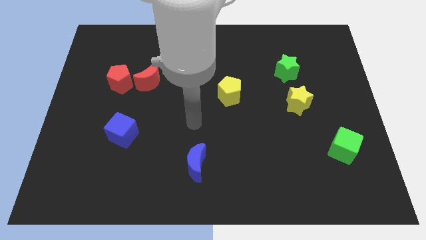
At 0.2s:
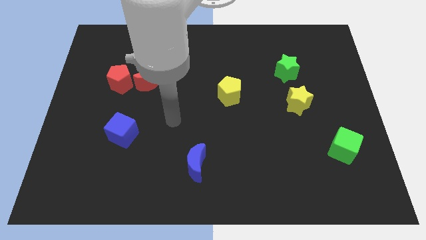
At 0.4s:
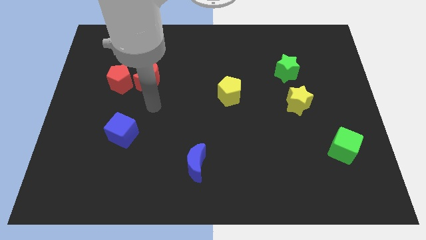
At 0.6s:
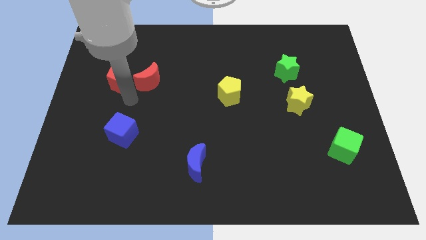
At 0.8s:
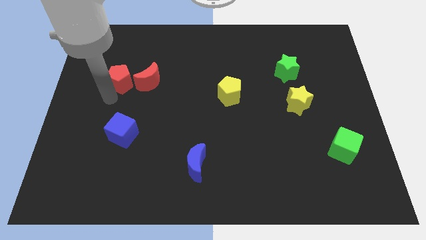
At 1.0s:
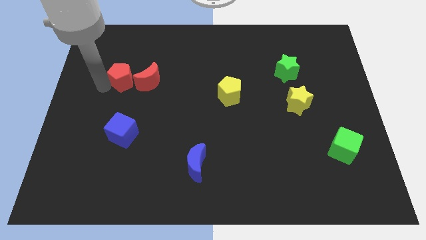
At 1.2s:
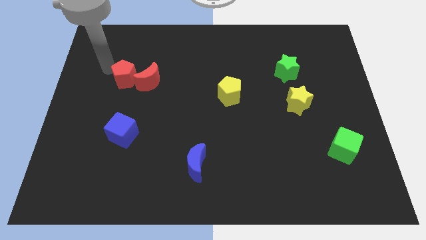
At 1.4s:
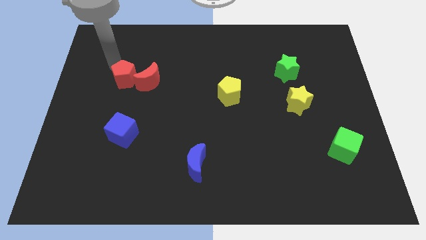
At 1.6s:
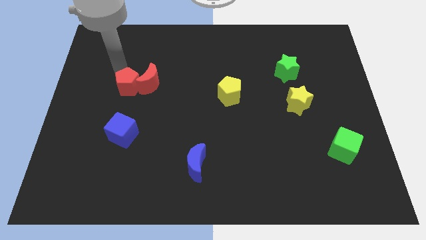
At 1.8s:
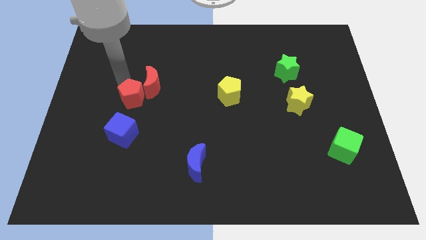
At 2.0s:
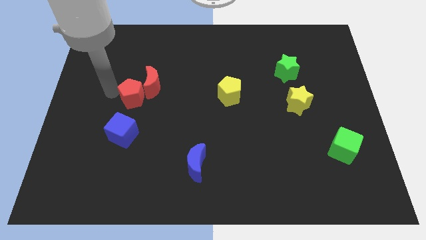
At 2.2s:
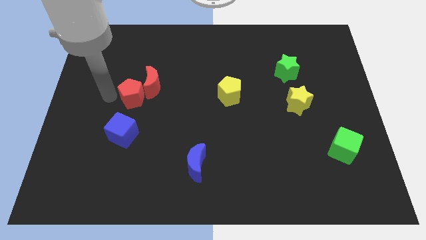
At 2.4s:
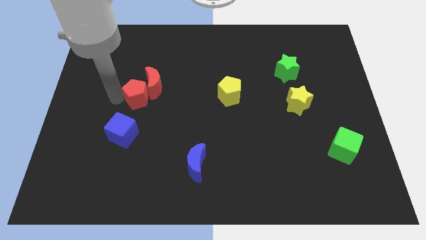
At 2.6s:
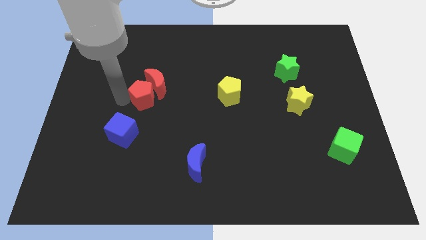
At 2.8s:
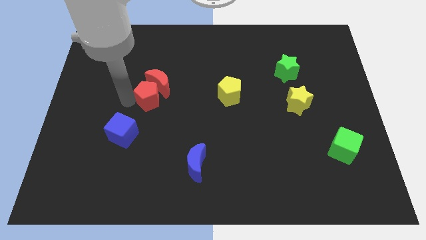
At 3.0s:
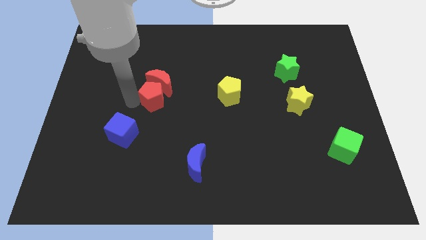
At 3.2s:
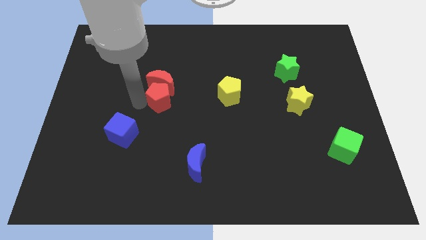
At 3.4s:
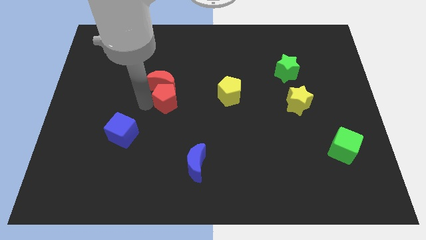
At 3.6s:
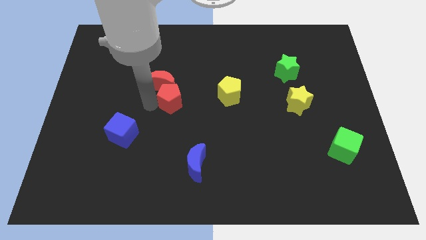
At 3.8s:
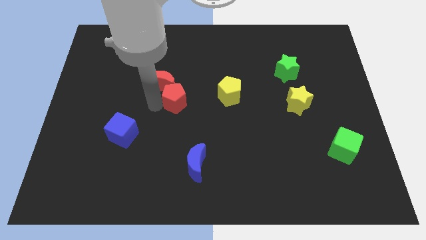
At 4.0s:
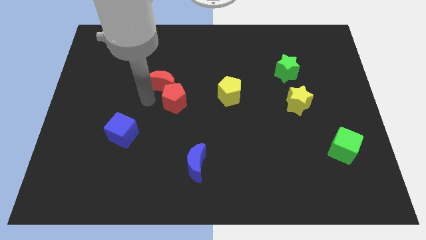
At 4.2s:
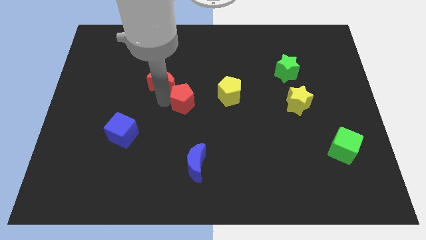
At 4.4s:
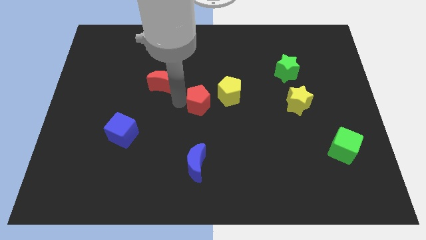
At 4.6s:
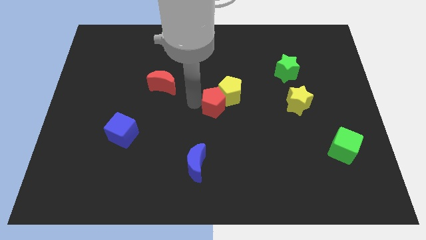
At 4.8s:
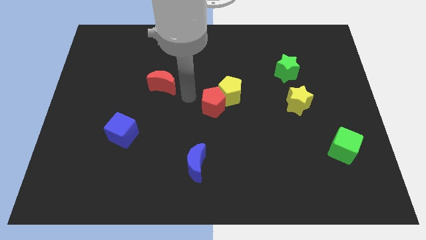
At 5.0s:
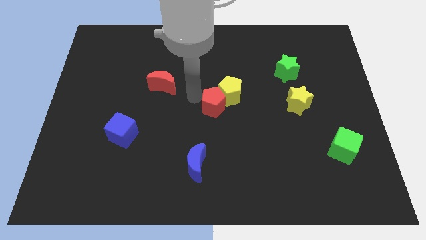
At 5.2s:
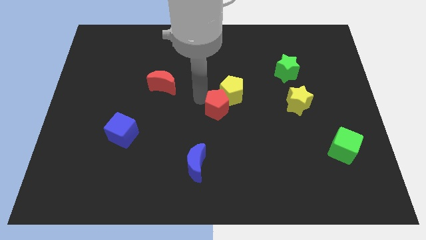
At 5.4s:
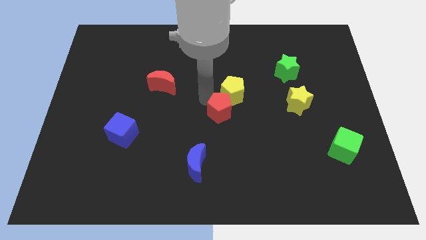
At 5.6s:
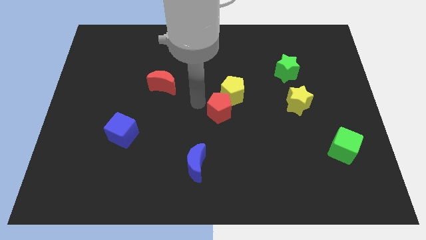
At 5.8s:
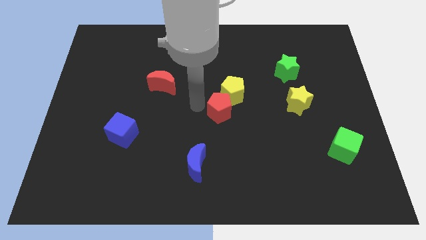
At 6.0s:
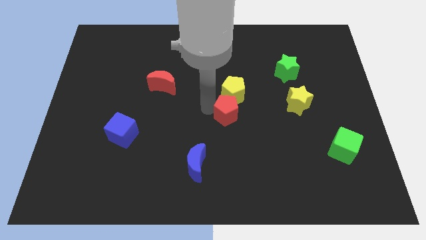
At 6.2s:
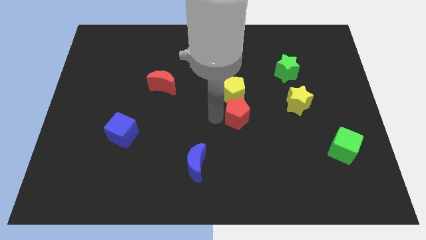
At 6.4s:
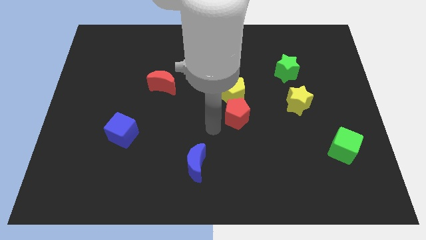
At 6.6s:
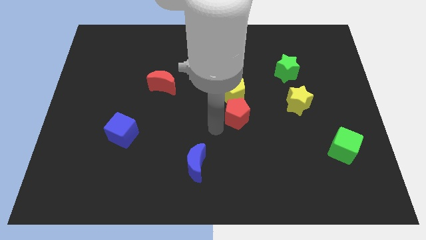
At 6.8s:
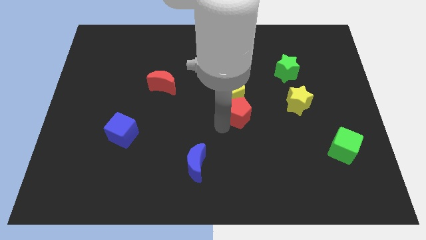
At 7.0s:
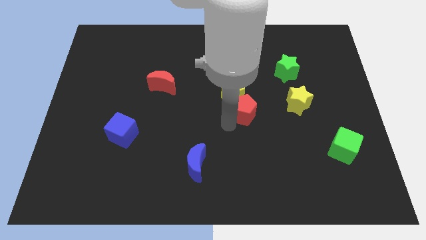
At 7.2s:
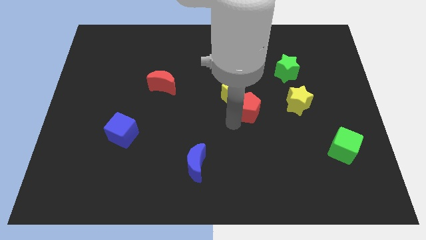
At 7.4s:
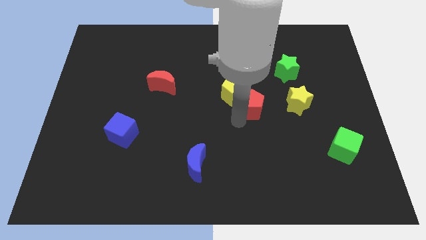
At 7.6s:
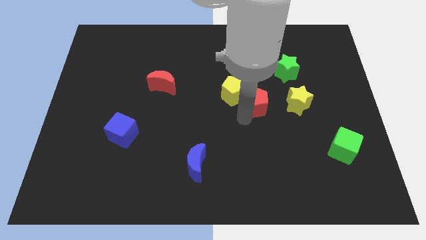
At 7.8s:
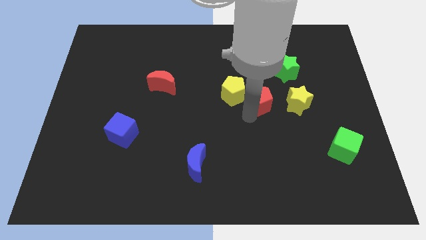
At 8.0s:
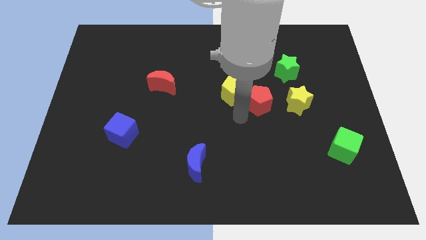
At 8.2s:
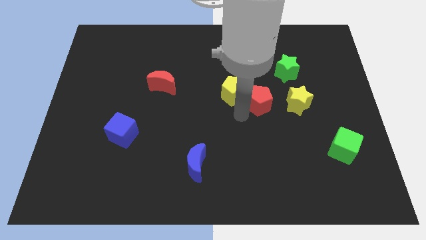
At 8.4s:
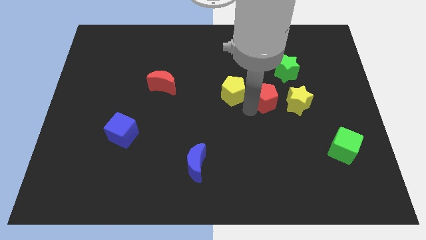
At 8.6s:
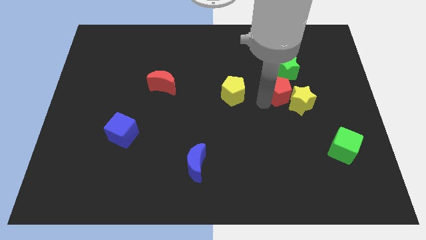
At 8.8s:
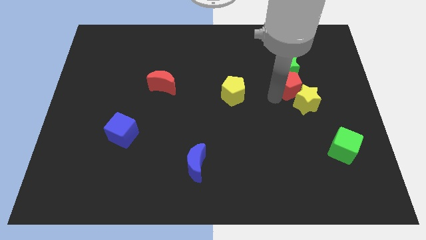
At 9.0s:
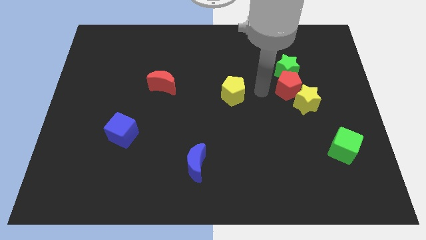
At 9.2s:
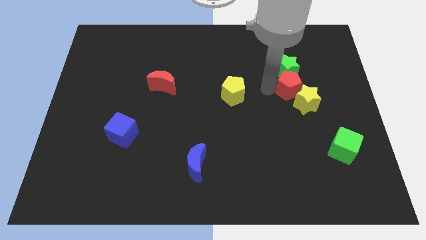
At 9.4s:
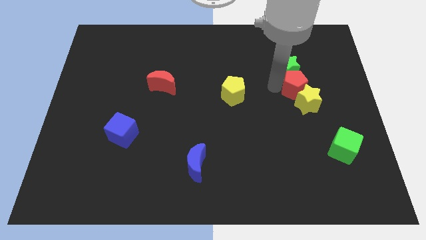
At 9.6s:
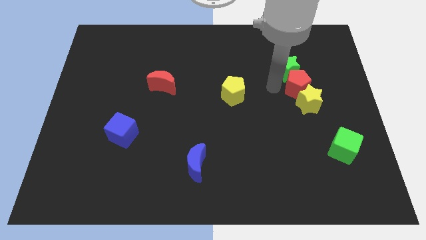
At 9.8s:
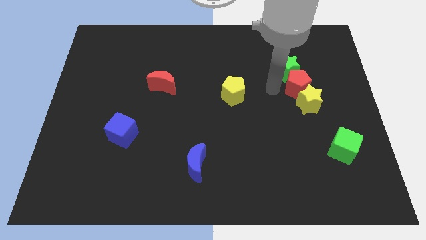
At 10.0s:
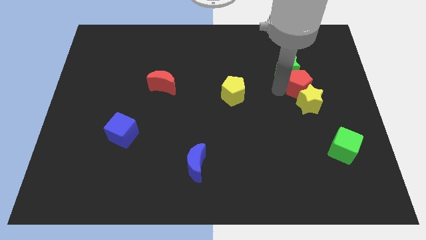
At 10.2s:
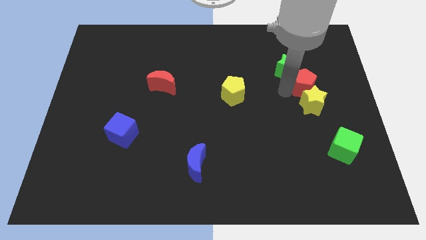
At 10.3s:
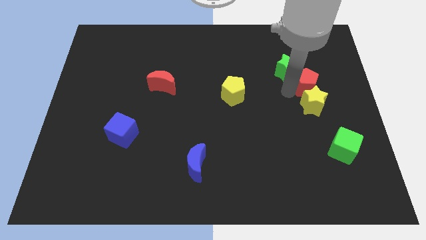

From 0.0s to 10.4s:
push the red pentagon to the top right side of the yellow star
